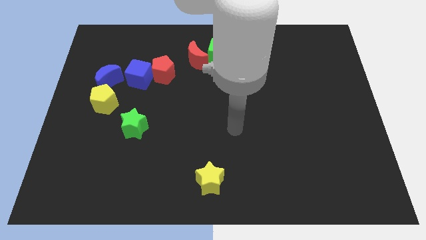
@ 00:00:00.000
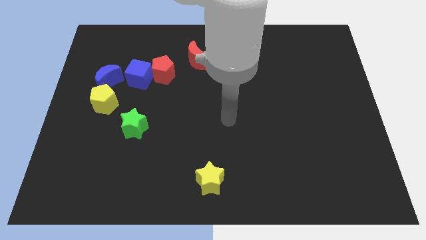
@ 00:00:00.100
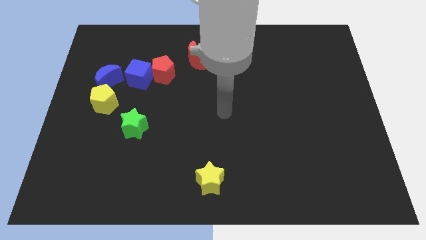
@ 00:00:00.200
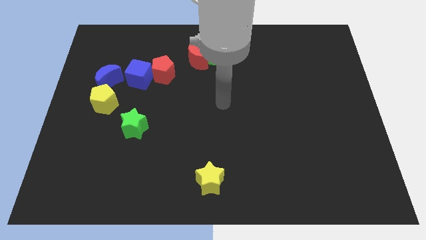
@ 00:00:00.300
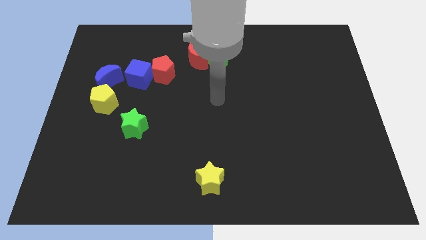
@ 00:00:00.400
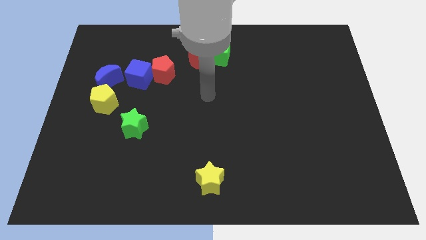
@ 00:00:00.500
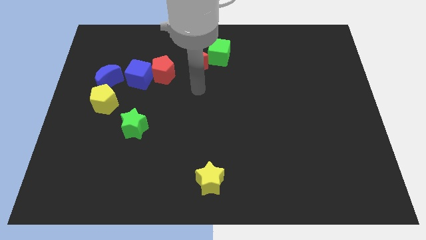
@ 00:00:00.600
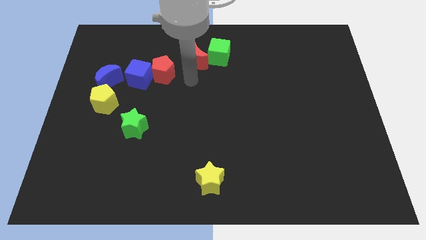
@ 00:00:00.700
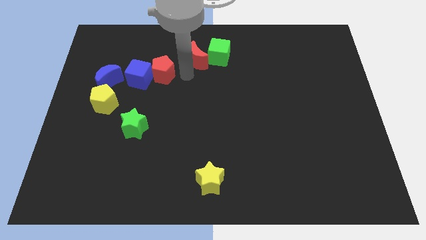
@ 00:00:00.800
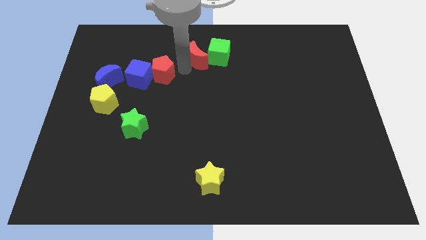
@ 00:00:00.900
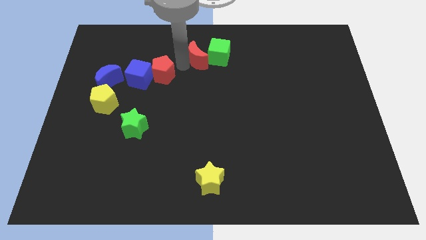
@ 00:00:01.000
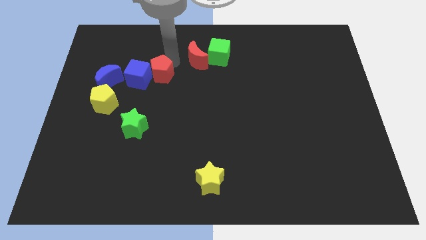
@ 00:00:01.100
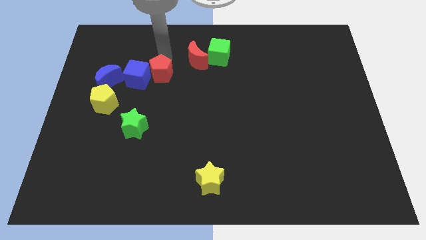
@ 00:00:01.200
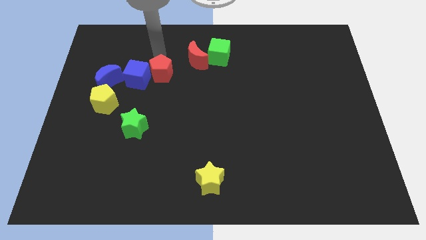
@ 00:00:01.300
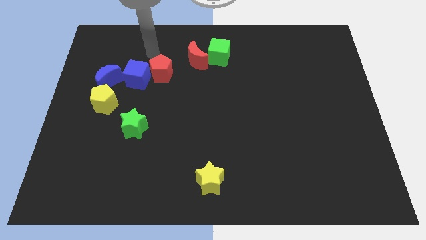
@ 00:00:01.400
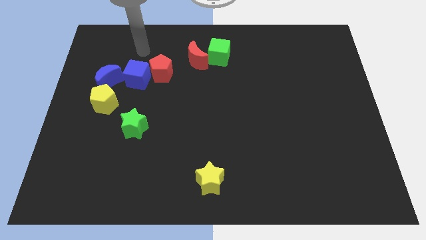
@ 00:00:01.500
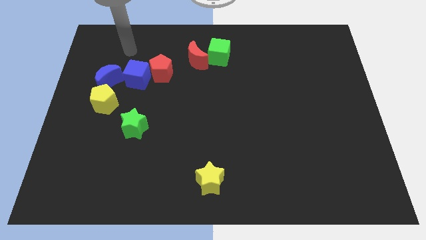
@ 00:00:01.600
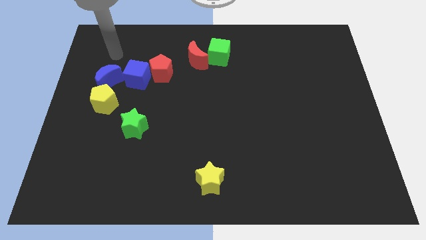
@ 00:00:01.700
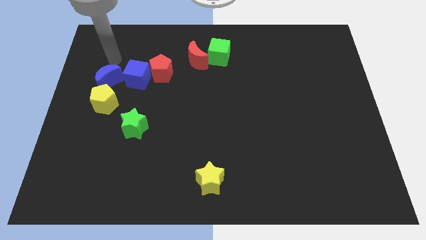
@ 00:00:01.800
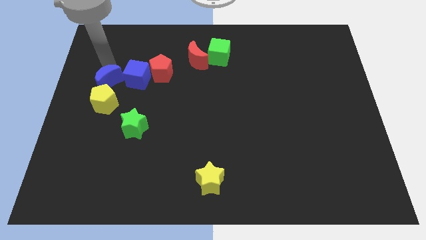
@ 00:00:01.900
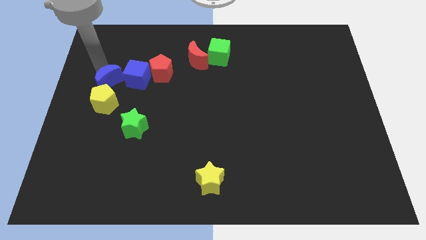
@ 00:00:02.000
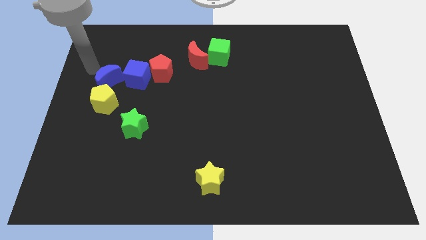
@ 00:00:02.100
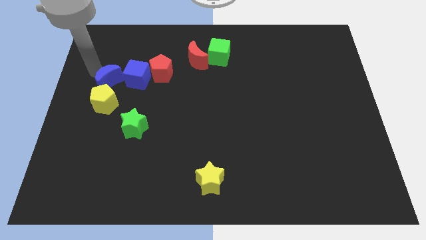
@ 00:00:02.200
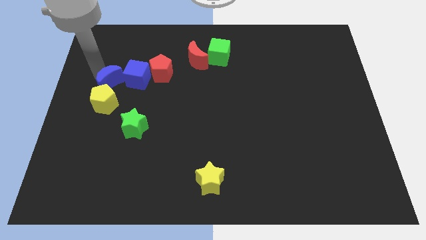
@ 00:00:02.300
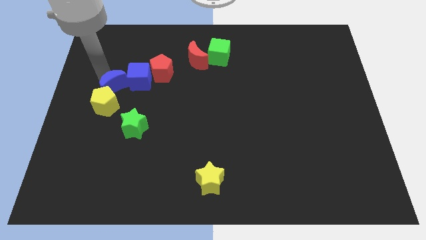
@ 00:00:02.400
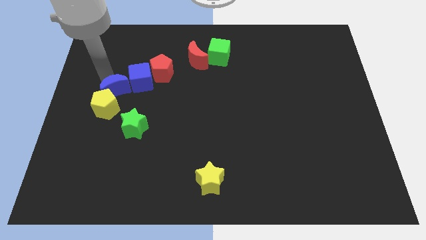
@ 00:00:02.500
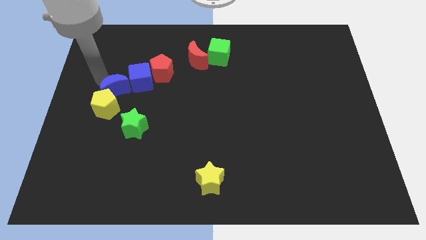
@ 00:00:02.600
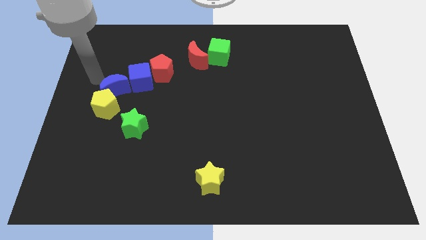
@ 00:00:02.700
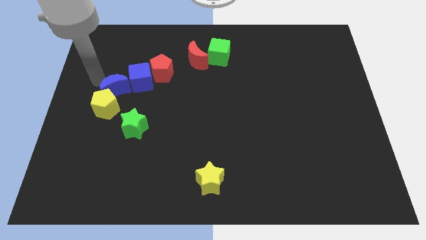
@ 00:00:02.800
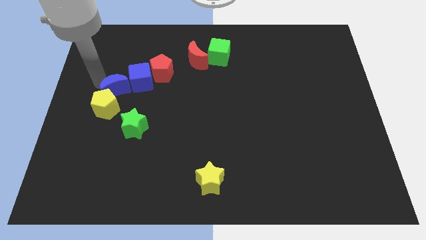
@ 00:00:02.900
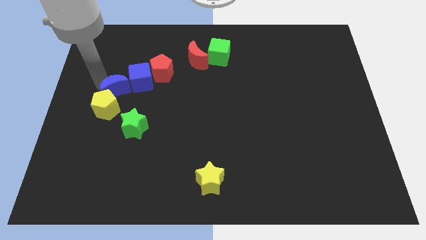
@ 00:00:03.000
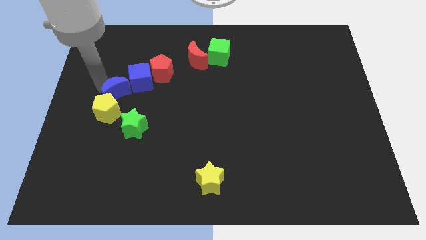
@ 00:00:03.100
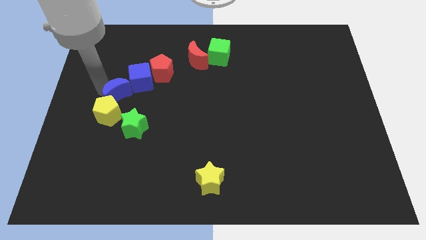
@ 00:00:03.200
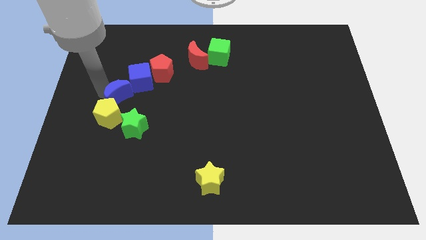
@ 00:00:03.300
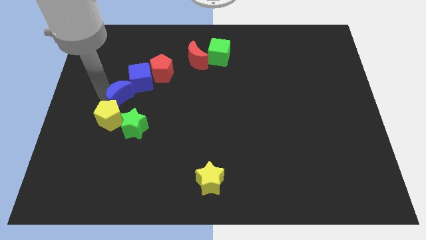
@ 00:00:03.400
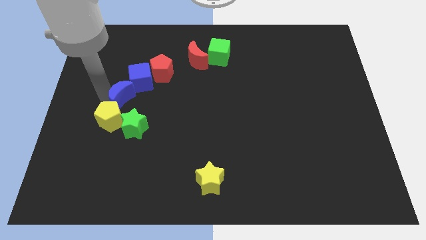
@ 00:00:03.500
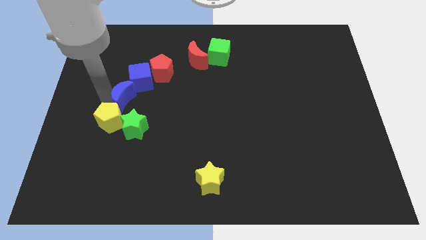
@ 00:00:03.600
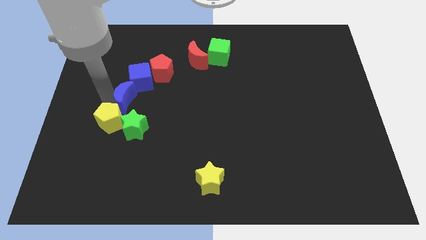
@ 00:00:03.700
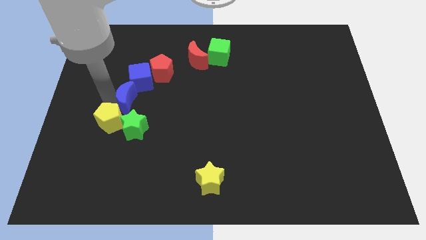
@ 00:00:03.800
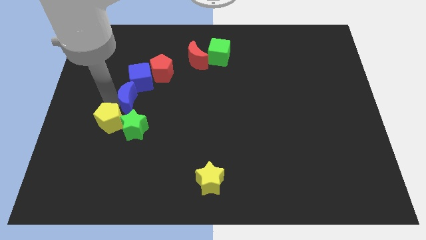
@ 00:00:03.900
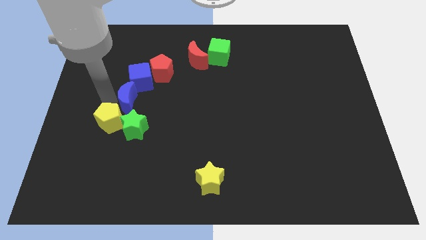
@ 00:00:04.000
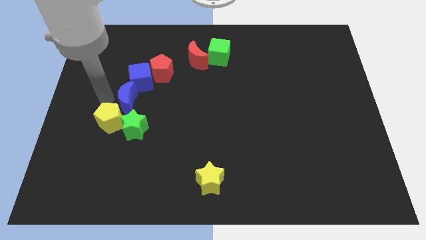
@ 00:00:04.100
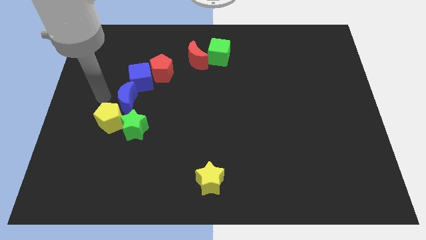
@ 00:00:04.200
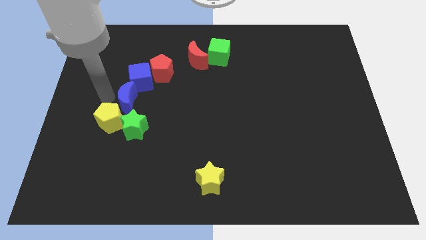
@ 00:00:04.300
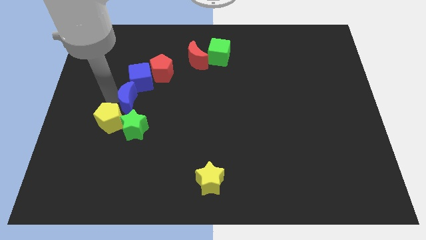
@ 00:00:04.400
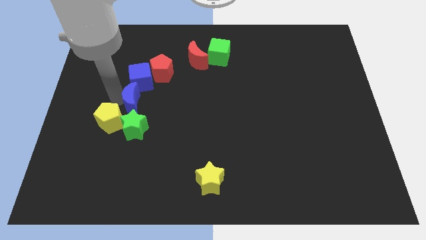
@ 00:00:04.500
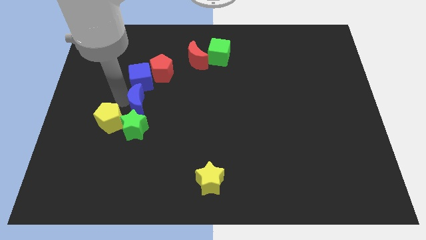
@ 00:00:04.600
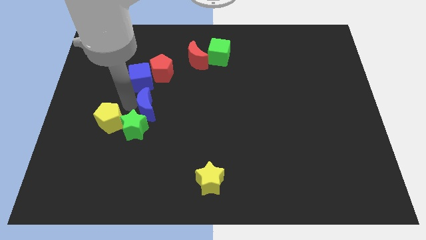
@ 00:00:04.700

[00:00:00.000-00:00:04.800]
slide the blue moon somewhat right

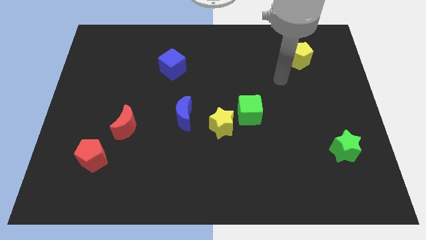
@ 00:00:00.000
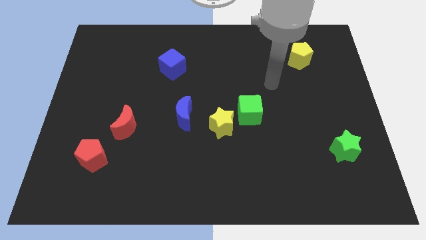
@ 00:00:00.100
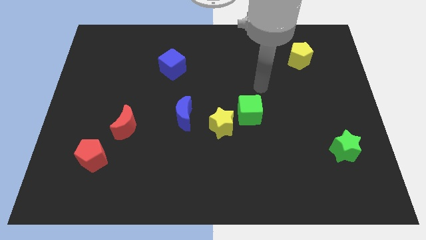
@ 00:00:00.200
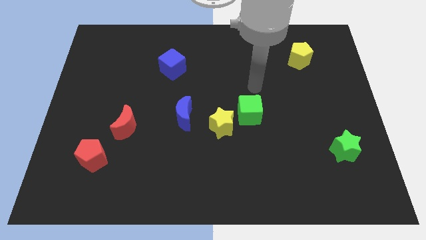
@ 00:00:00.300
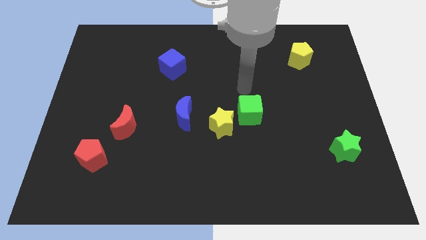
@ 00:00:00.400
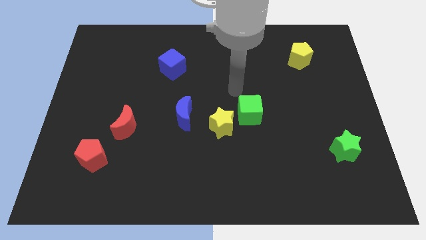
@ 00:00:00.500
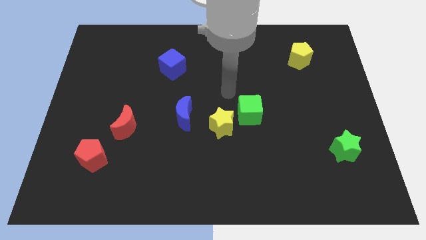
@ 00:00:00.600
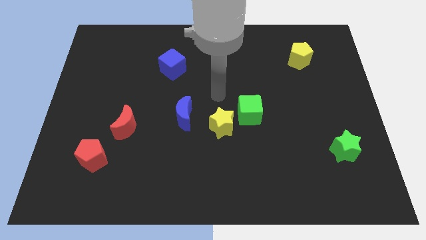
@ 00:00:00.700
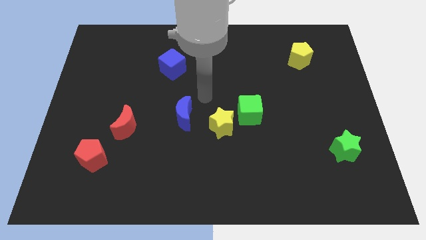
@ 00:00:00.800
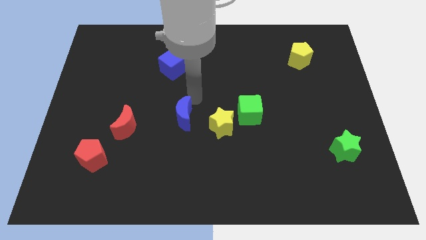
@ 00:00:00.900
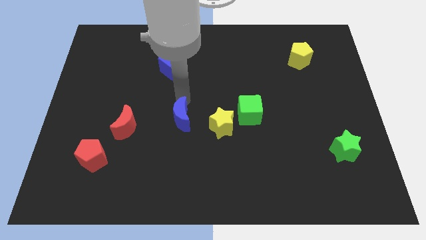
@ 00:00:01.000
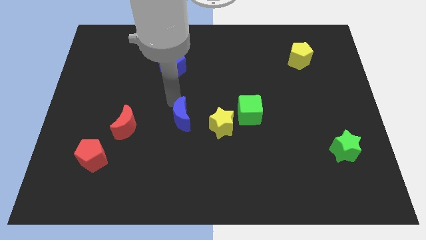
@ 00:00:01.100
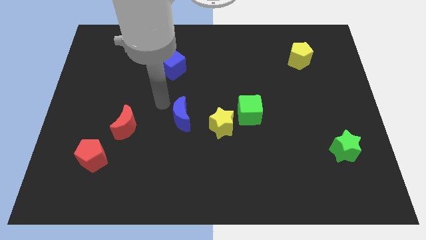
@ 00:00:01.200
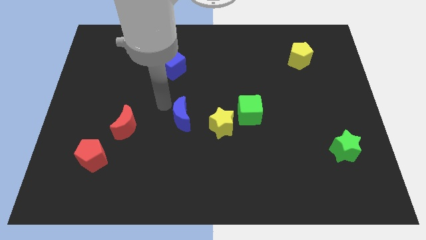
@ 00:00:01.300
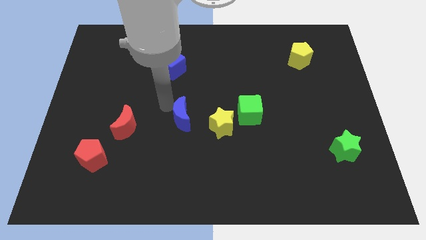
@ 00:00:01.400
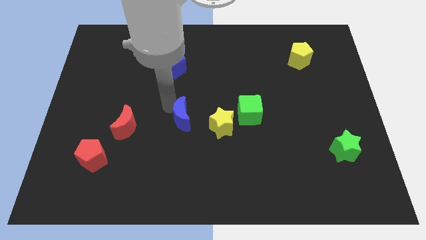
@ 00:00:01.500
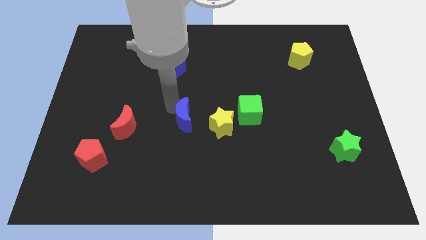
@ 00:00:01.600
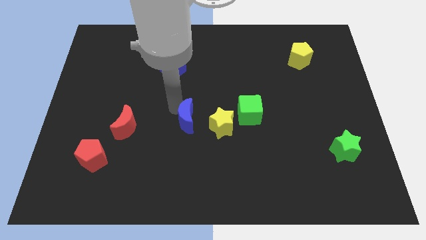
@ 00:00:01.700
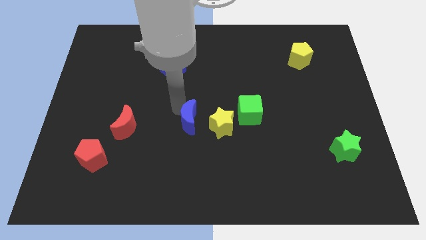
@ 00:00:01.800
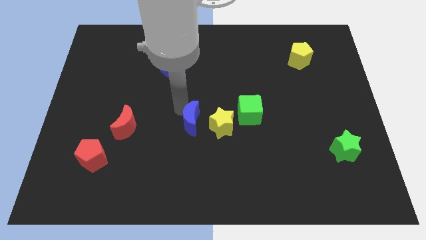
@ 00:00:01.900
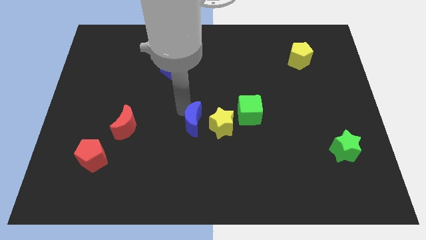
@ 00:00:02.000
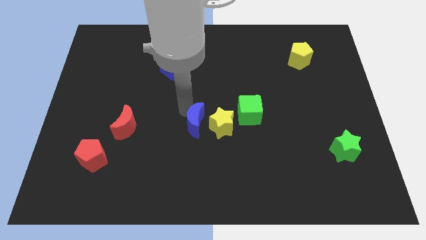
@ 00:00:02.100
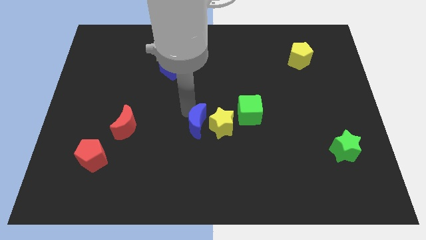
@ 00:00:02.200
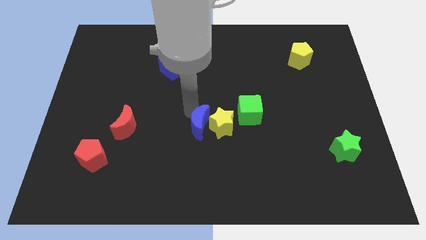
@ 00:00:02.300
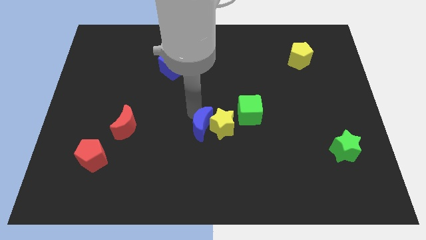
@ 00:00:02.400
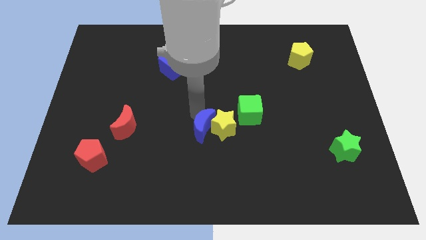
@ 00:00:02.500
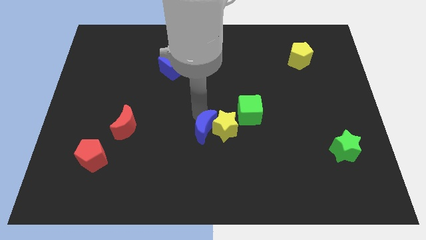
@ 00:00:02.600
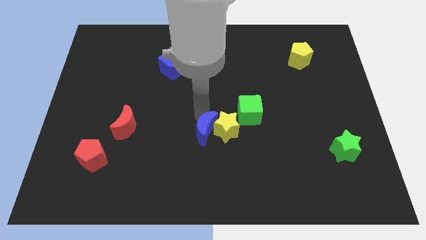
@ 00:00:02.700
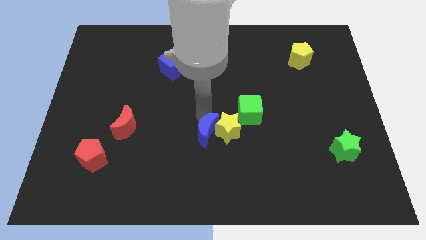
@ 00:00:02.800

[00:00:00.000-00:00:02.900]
slightly move the blue moon down and then right
